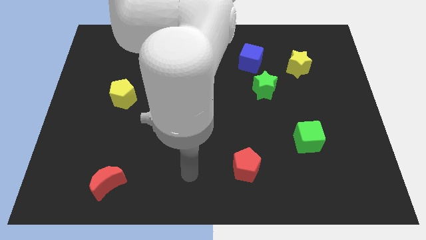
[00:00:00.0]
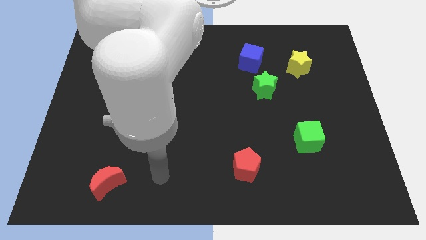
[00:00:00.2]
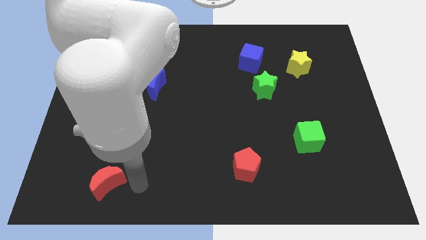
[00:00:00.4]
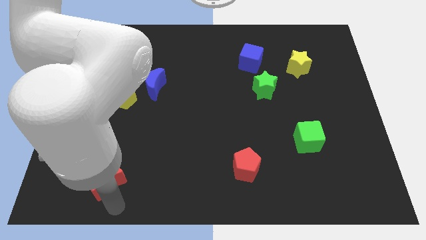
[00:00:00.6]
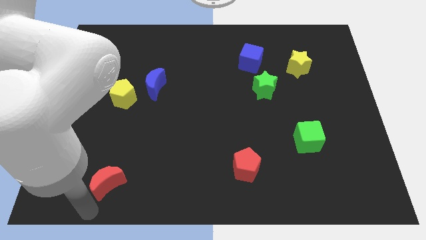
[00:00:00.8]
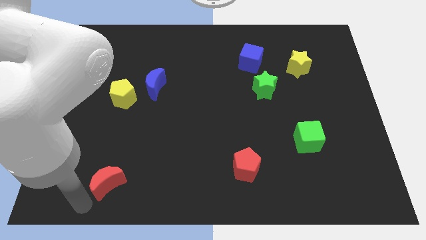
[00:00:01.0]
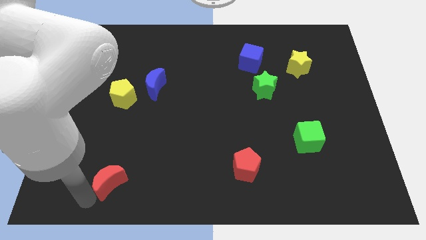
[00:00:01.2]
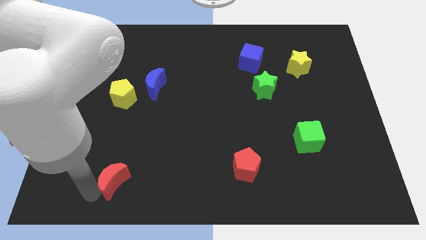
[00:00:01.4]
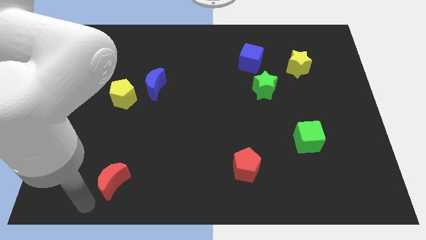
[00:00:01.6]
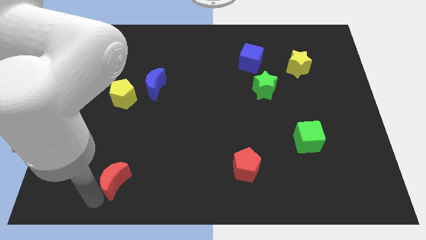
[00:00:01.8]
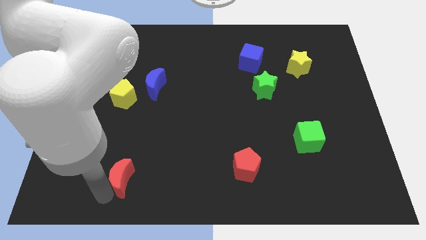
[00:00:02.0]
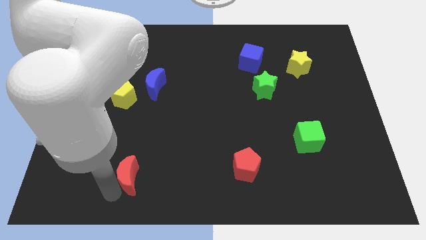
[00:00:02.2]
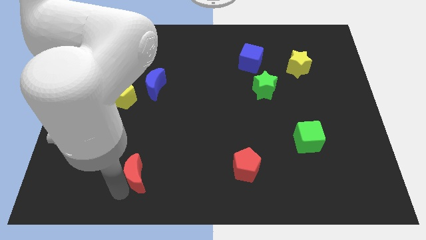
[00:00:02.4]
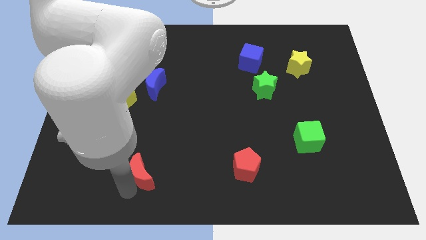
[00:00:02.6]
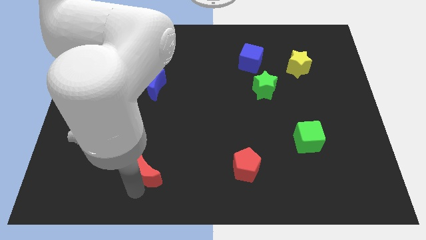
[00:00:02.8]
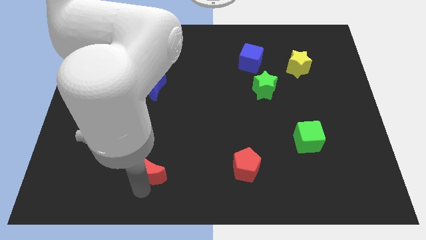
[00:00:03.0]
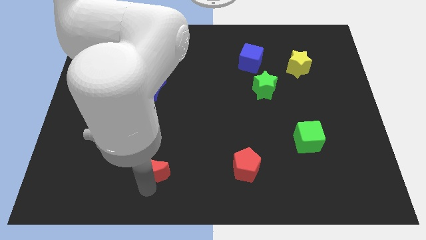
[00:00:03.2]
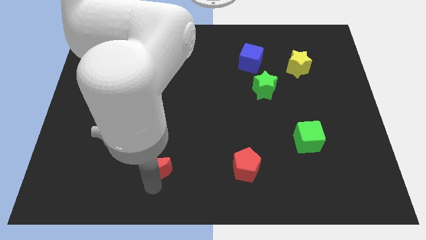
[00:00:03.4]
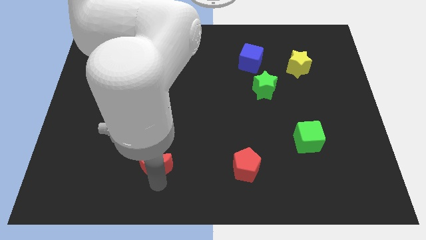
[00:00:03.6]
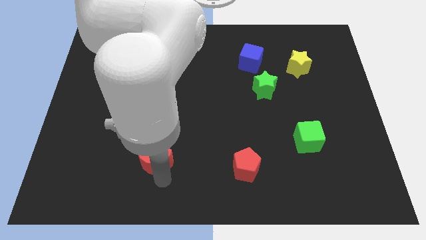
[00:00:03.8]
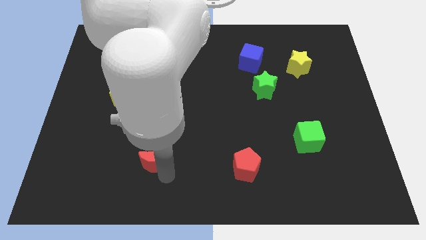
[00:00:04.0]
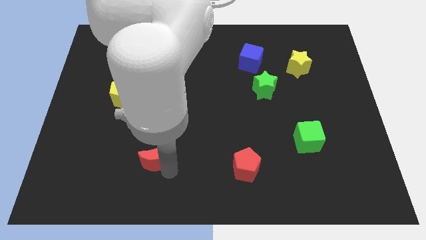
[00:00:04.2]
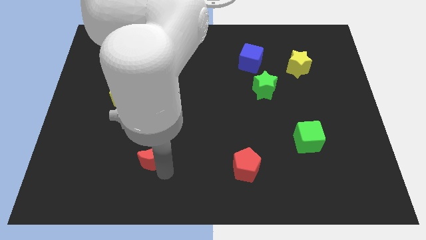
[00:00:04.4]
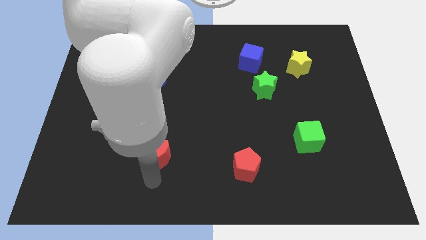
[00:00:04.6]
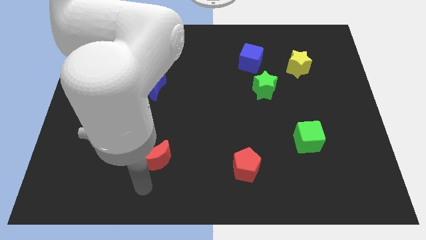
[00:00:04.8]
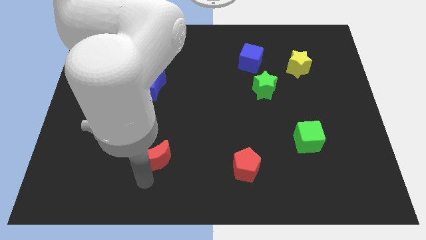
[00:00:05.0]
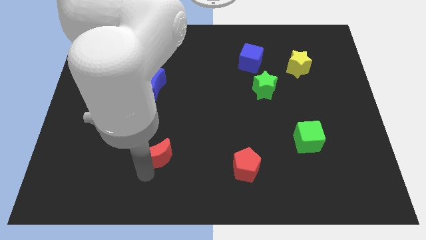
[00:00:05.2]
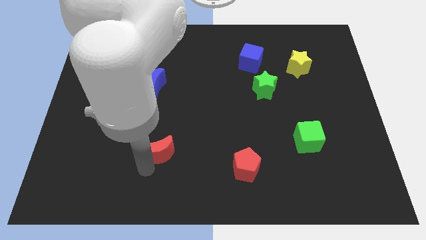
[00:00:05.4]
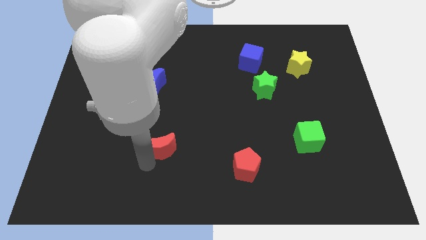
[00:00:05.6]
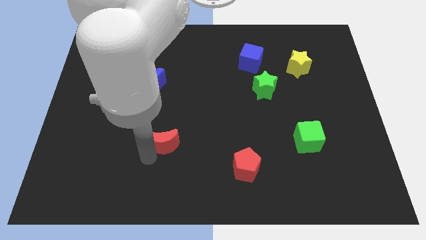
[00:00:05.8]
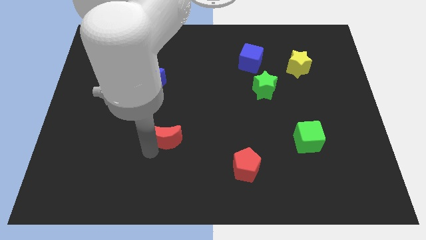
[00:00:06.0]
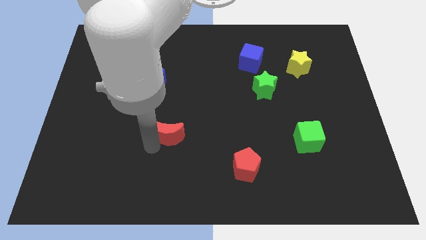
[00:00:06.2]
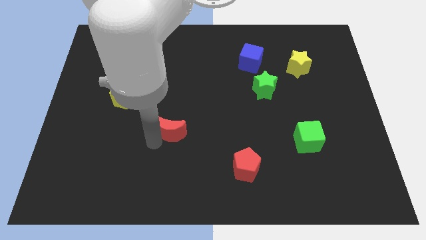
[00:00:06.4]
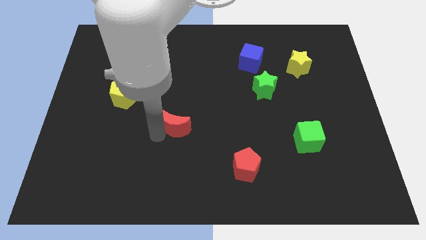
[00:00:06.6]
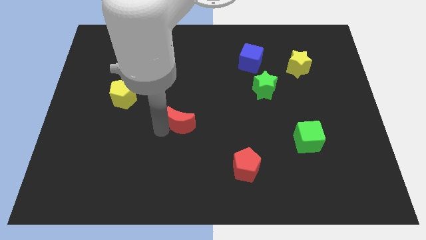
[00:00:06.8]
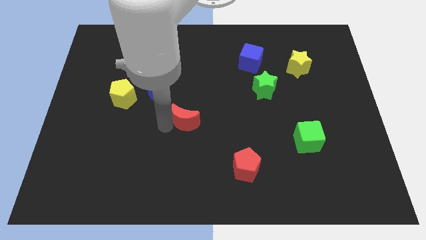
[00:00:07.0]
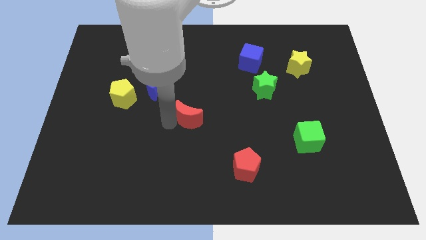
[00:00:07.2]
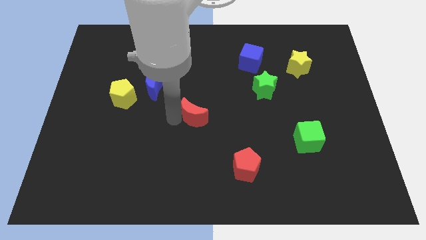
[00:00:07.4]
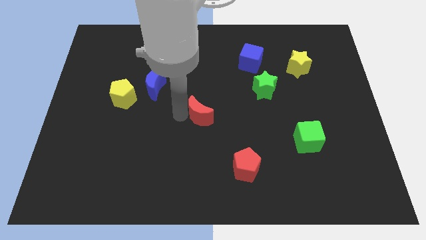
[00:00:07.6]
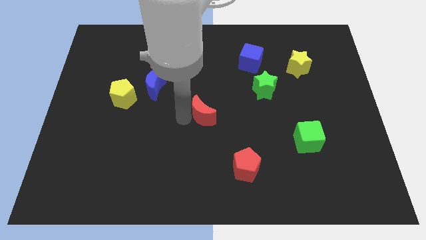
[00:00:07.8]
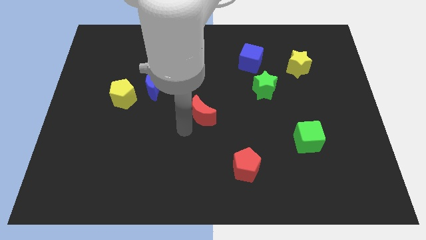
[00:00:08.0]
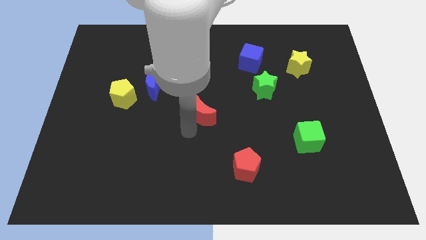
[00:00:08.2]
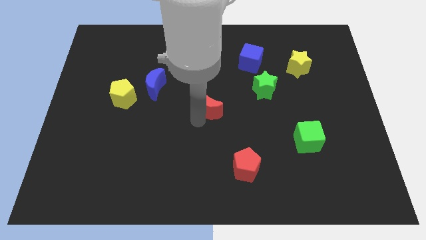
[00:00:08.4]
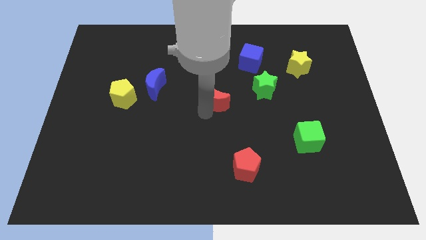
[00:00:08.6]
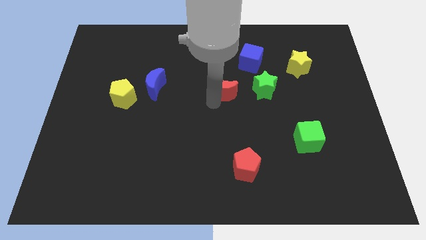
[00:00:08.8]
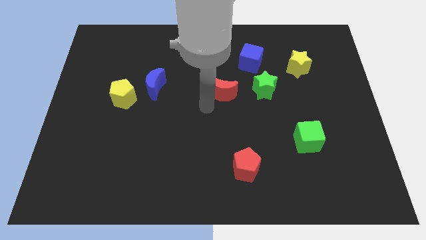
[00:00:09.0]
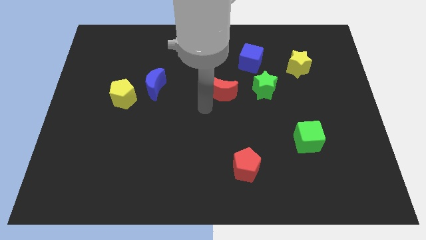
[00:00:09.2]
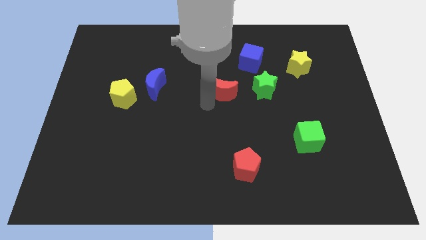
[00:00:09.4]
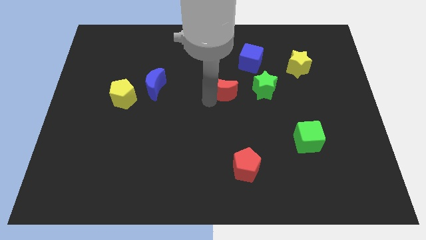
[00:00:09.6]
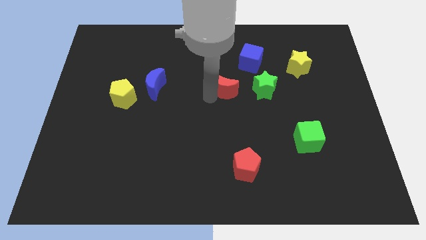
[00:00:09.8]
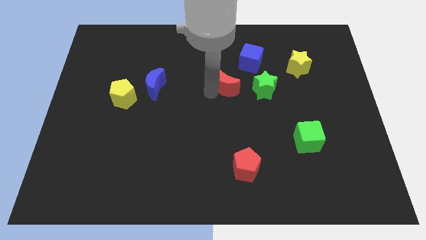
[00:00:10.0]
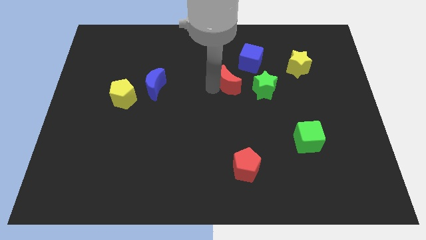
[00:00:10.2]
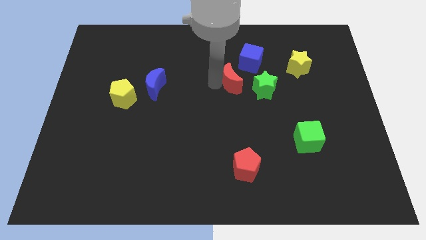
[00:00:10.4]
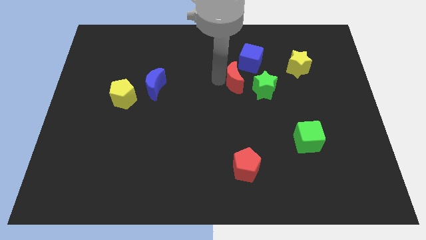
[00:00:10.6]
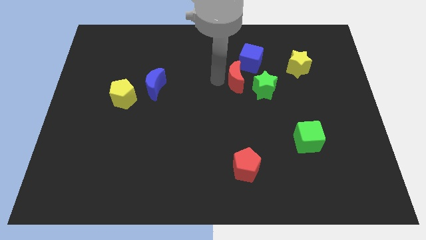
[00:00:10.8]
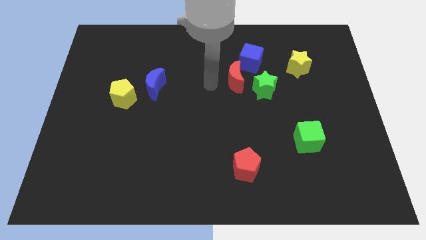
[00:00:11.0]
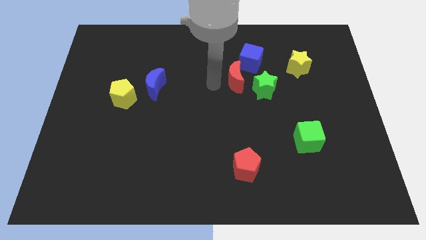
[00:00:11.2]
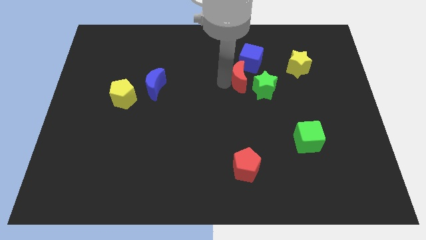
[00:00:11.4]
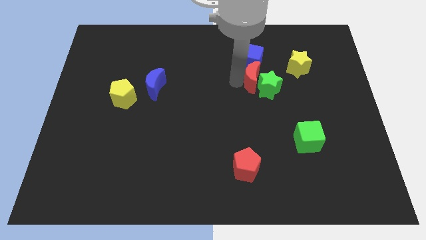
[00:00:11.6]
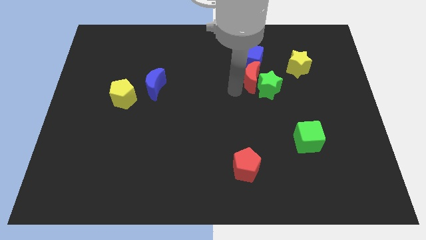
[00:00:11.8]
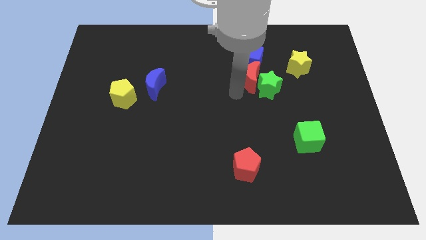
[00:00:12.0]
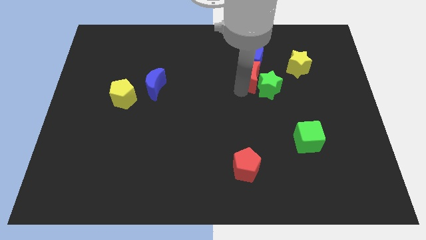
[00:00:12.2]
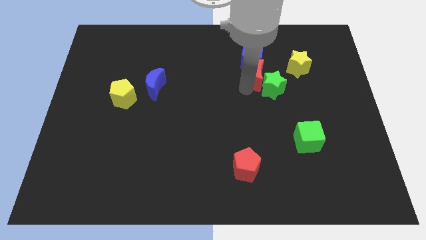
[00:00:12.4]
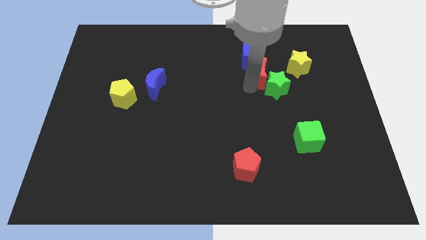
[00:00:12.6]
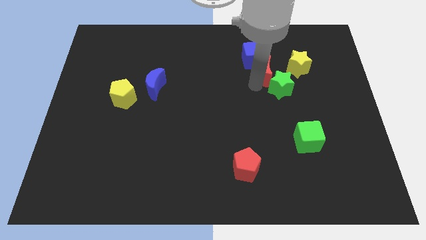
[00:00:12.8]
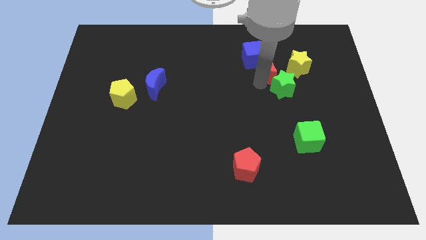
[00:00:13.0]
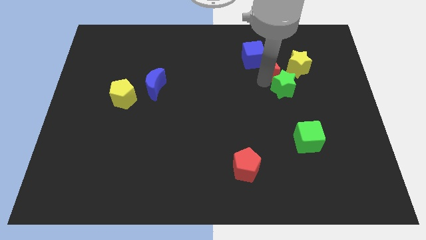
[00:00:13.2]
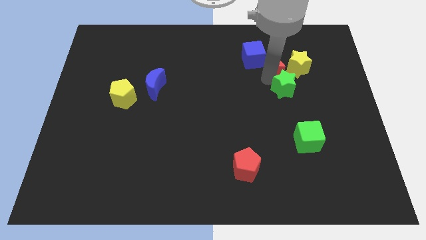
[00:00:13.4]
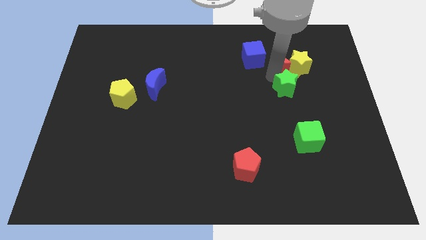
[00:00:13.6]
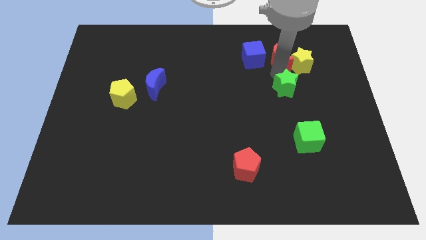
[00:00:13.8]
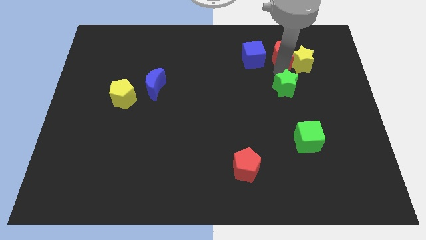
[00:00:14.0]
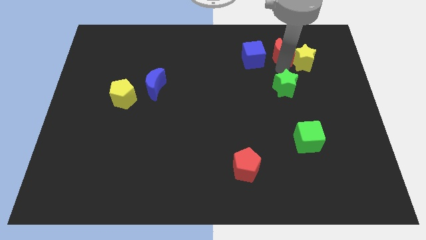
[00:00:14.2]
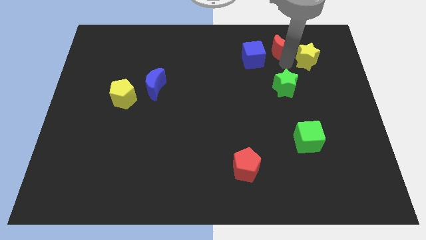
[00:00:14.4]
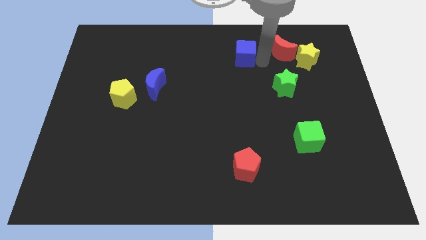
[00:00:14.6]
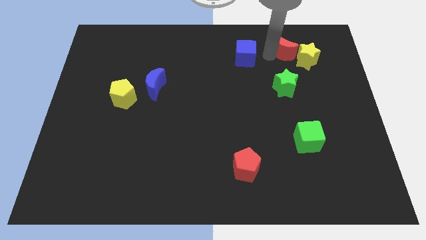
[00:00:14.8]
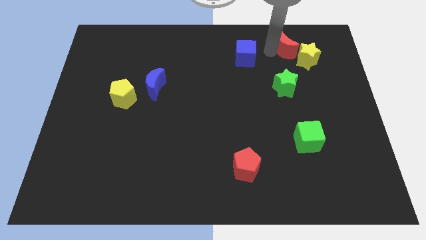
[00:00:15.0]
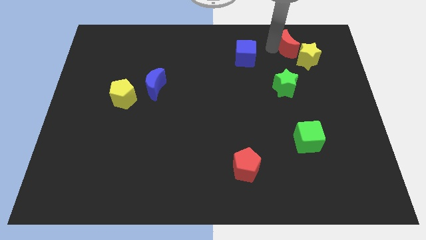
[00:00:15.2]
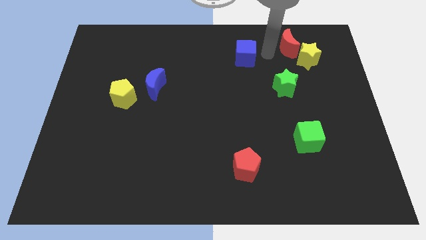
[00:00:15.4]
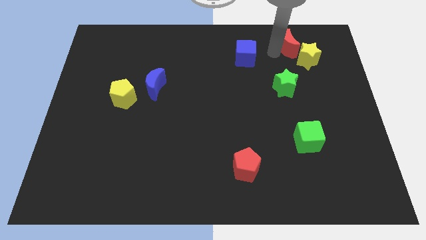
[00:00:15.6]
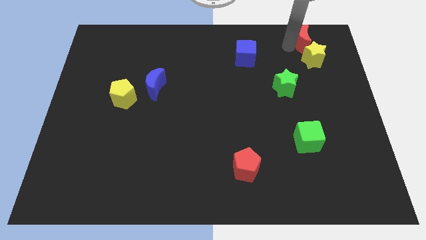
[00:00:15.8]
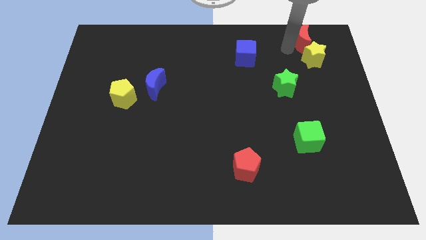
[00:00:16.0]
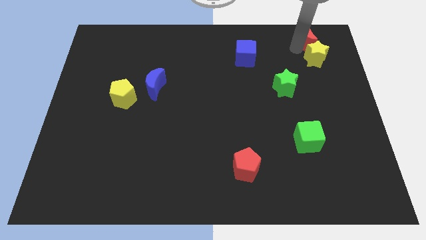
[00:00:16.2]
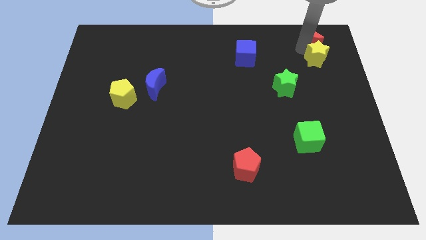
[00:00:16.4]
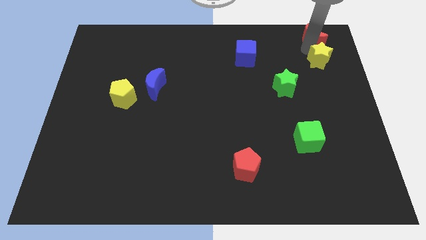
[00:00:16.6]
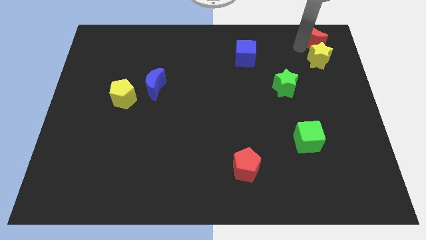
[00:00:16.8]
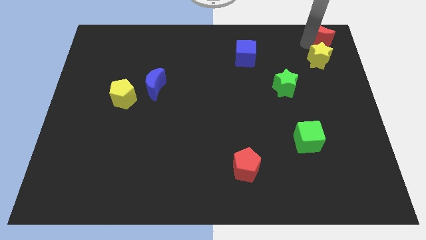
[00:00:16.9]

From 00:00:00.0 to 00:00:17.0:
slide the red moon to the top right
